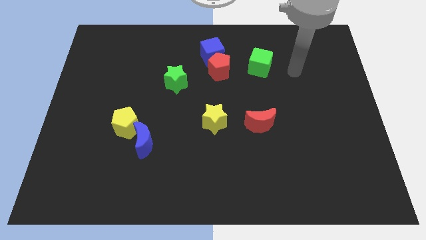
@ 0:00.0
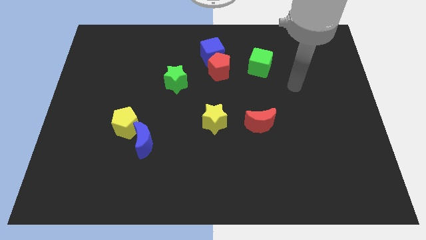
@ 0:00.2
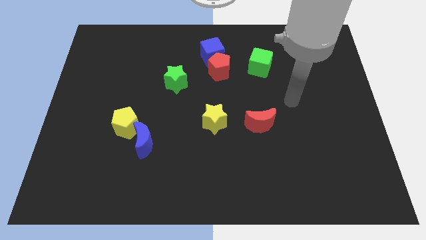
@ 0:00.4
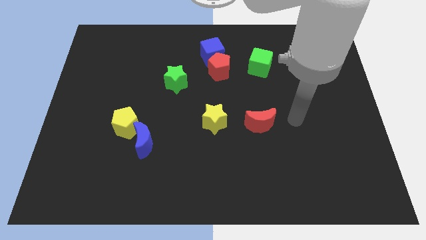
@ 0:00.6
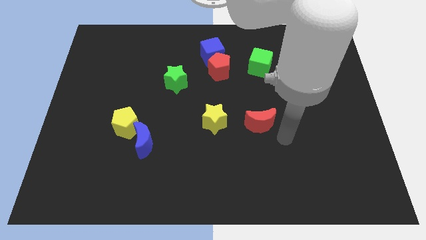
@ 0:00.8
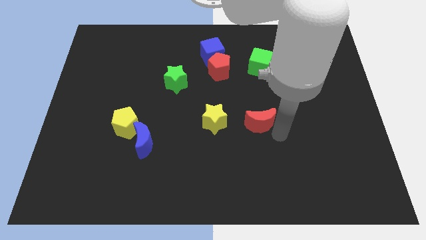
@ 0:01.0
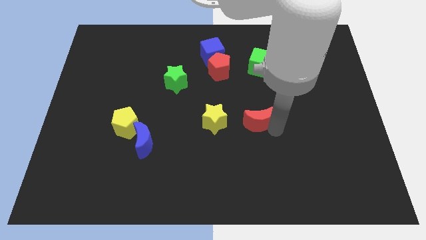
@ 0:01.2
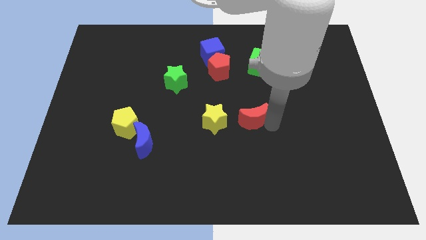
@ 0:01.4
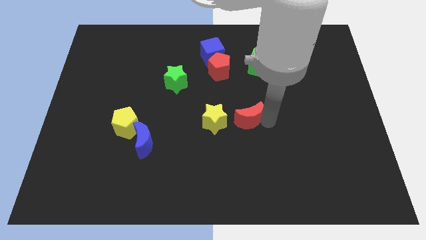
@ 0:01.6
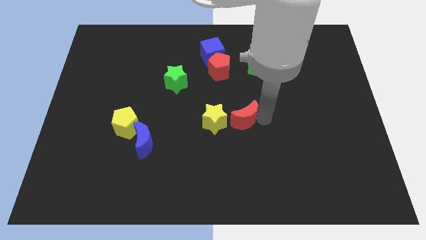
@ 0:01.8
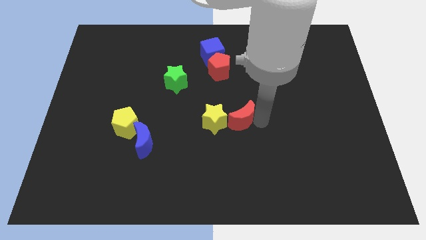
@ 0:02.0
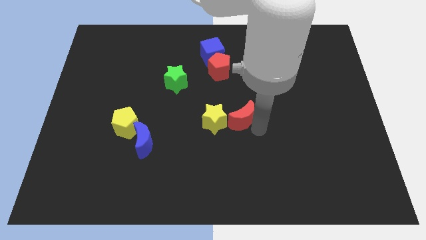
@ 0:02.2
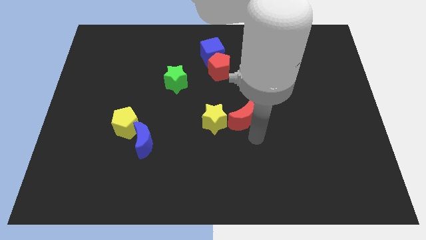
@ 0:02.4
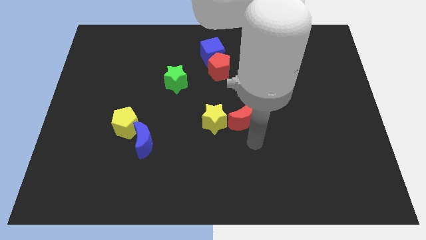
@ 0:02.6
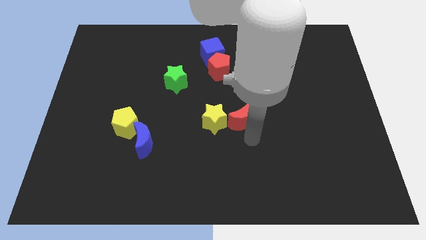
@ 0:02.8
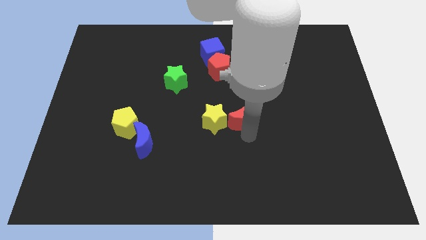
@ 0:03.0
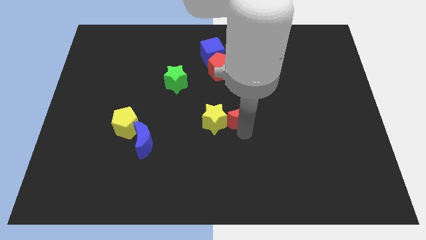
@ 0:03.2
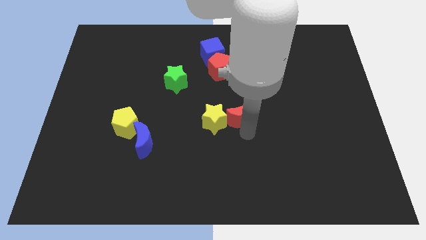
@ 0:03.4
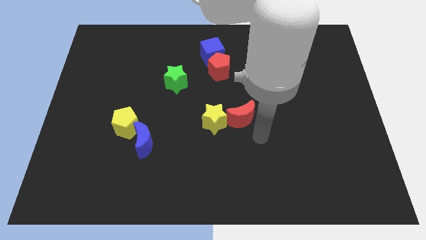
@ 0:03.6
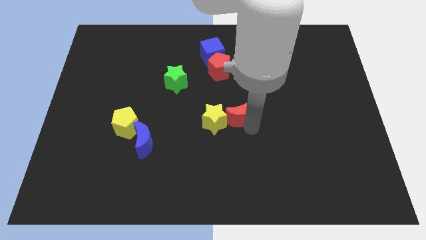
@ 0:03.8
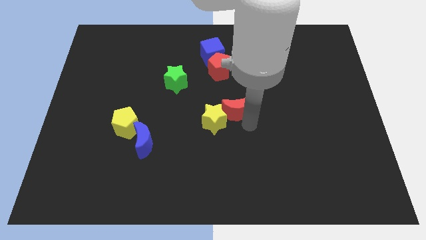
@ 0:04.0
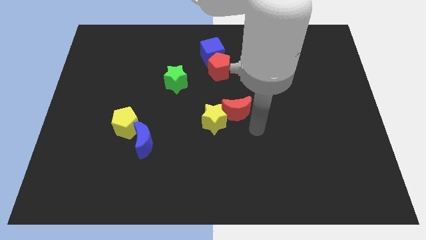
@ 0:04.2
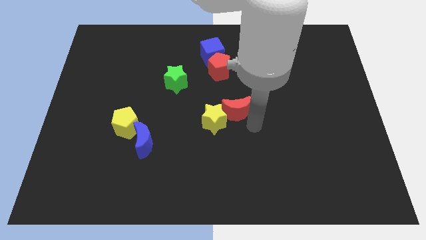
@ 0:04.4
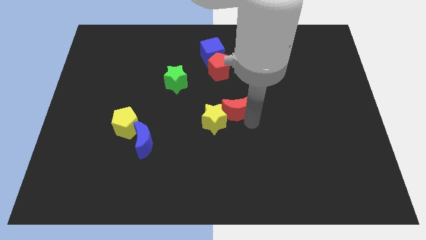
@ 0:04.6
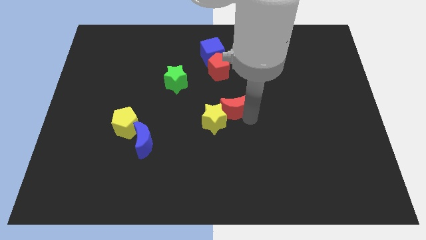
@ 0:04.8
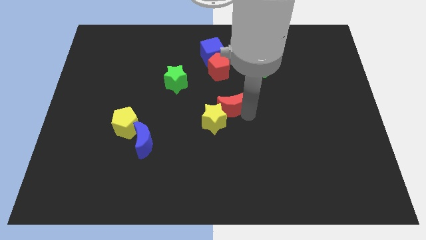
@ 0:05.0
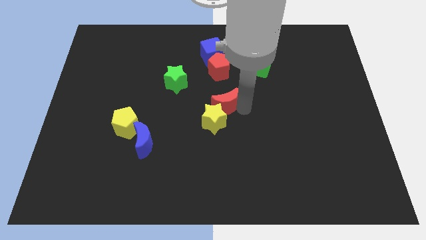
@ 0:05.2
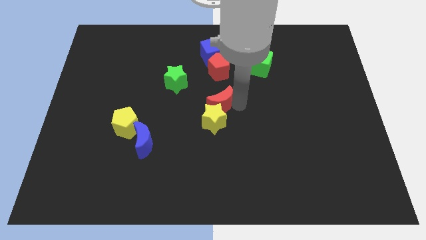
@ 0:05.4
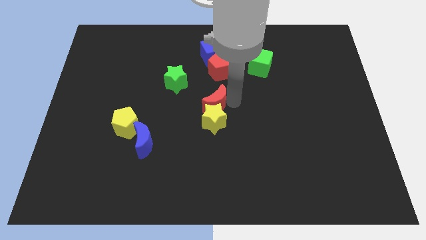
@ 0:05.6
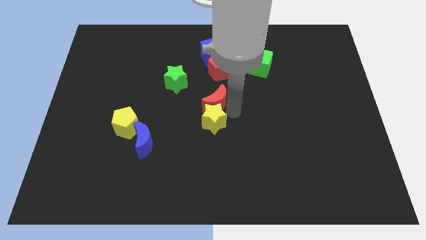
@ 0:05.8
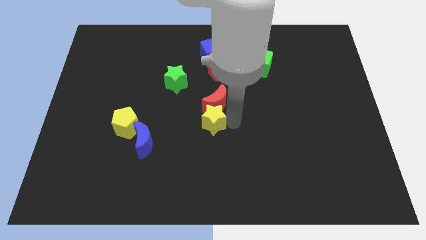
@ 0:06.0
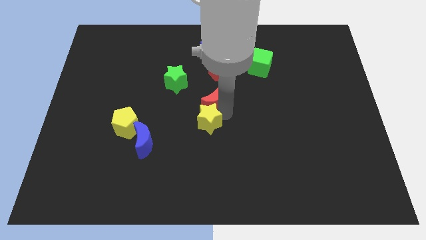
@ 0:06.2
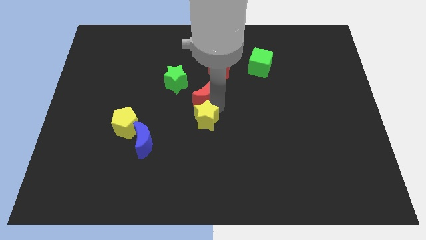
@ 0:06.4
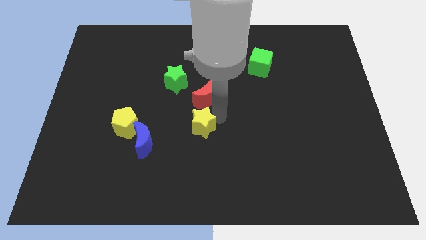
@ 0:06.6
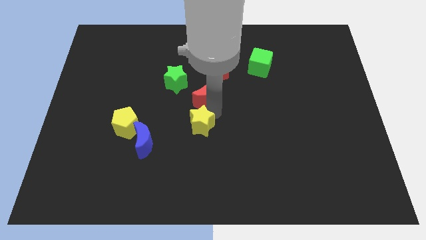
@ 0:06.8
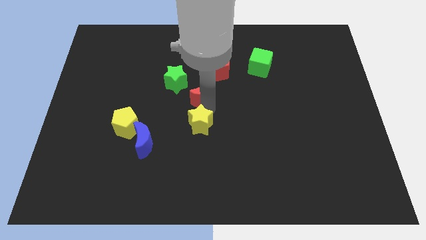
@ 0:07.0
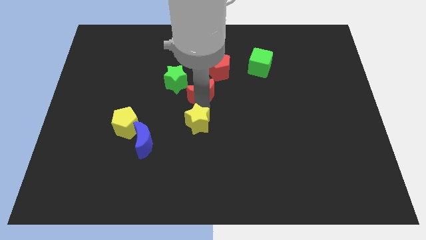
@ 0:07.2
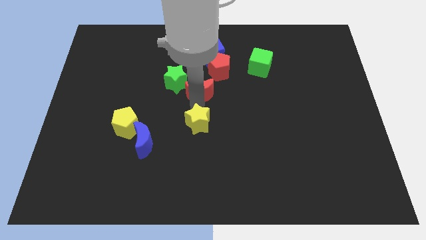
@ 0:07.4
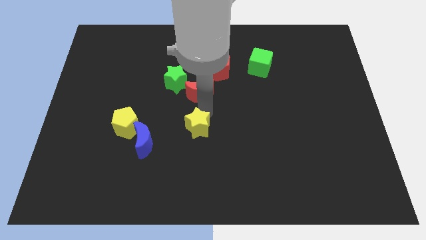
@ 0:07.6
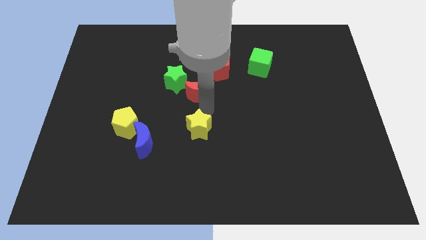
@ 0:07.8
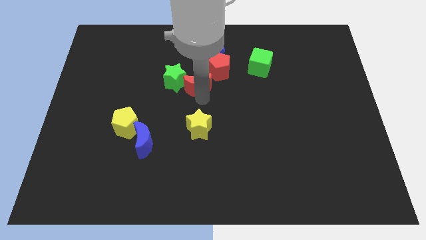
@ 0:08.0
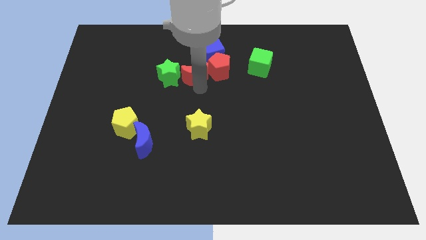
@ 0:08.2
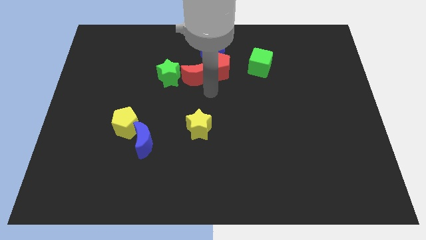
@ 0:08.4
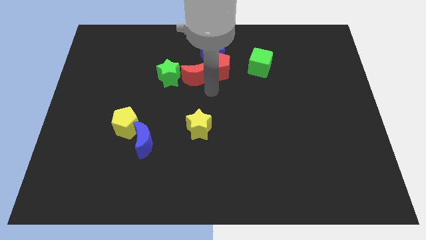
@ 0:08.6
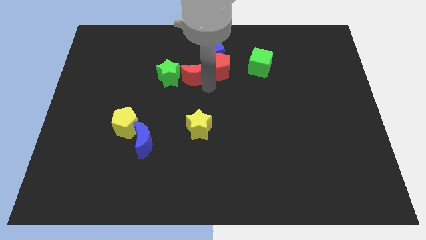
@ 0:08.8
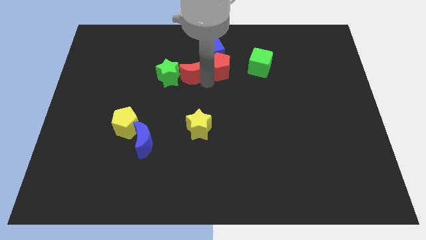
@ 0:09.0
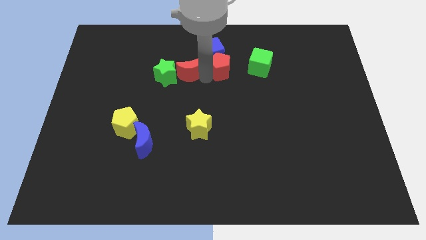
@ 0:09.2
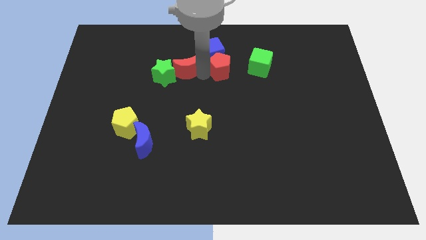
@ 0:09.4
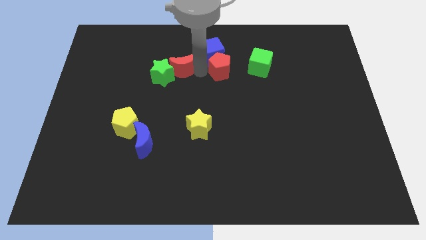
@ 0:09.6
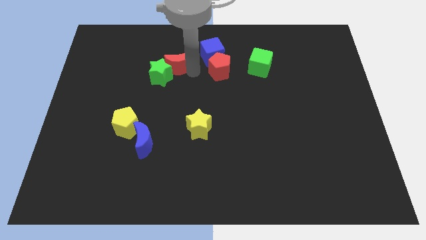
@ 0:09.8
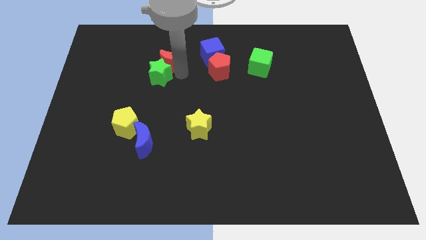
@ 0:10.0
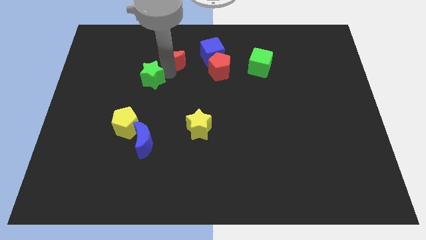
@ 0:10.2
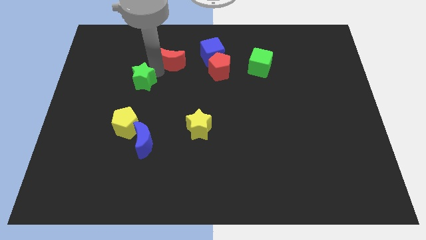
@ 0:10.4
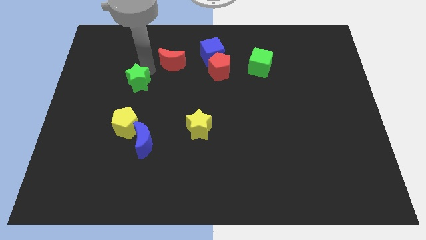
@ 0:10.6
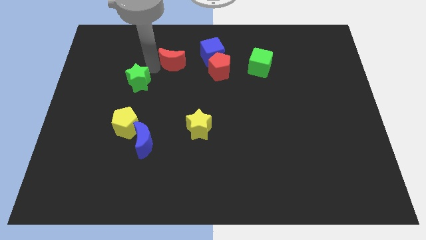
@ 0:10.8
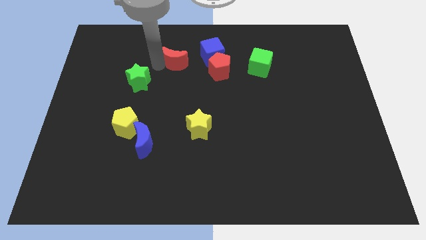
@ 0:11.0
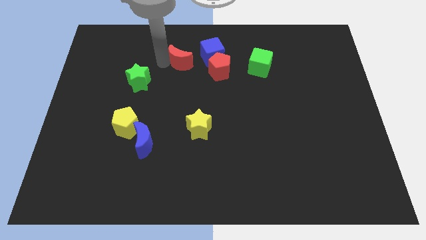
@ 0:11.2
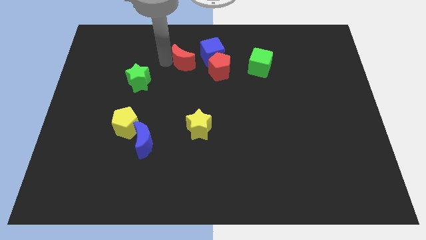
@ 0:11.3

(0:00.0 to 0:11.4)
push the red moon diagonally up and to the left of the red pentagon

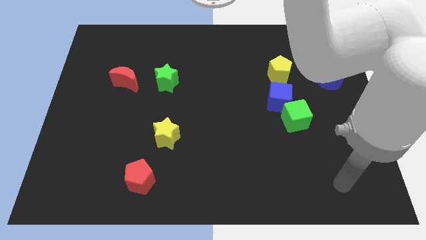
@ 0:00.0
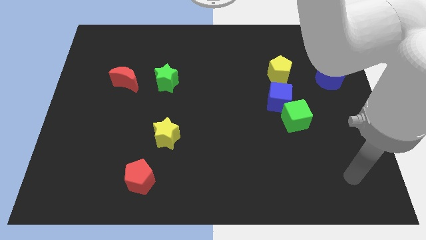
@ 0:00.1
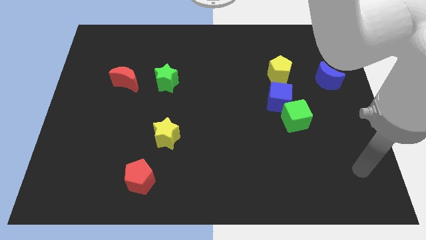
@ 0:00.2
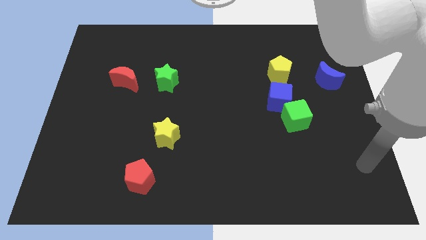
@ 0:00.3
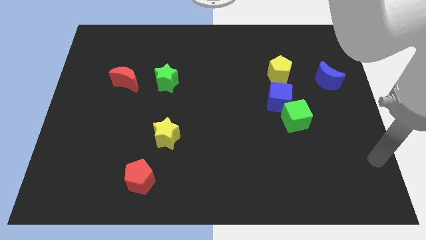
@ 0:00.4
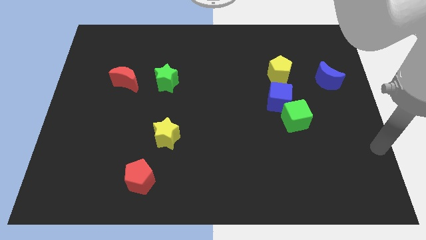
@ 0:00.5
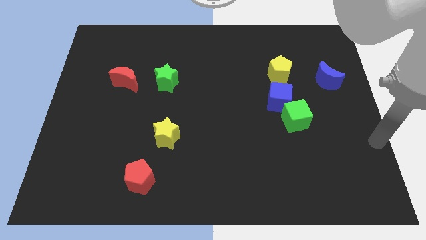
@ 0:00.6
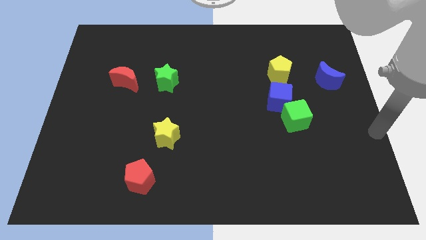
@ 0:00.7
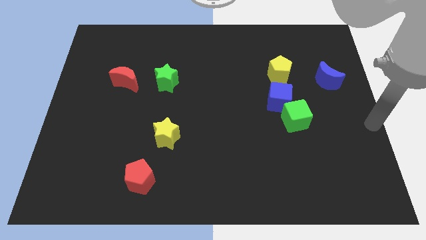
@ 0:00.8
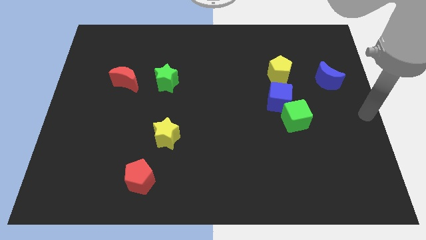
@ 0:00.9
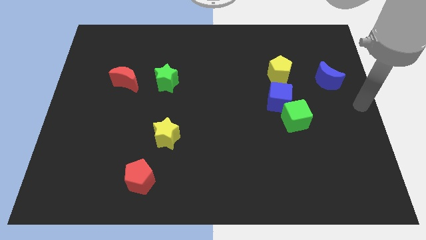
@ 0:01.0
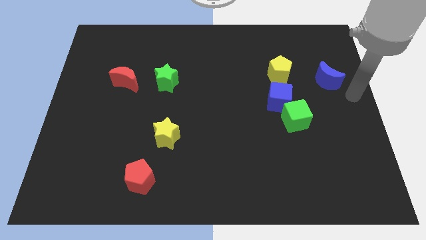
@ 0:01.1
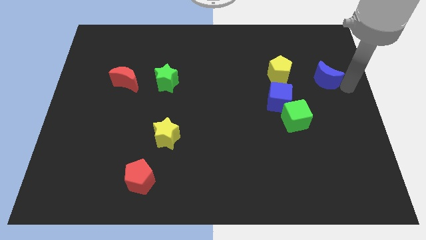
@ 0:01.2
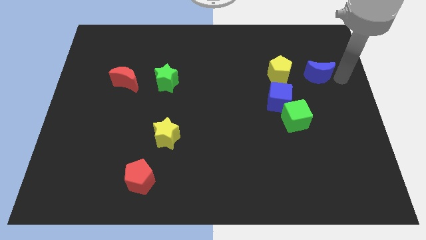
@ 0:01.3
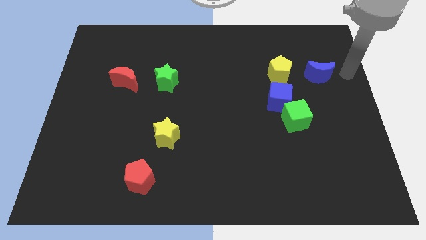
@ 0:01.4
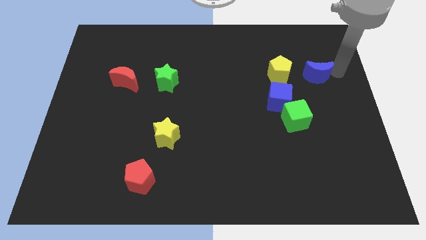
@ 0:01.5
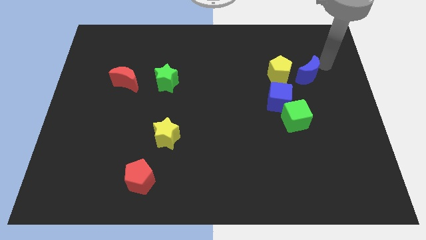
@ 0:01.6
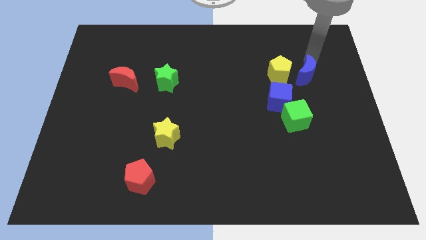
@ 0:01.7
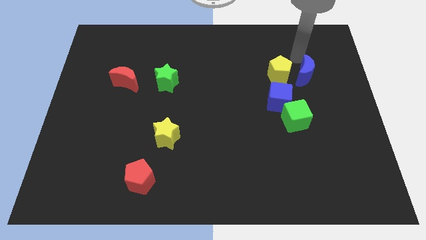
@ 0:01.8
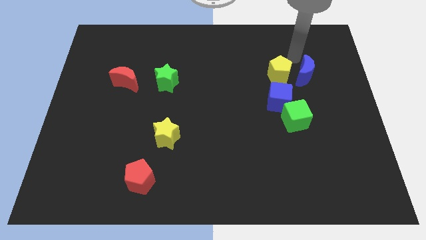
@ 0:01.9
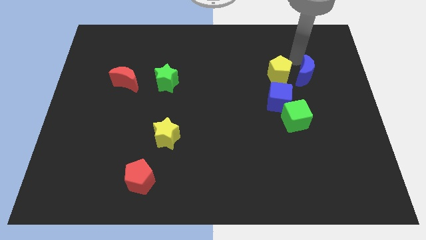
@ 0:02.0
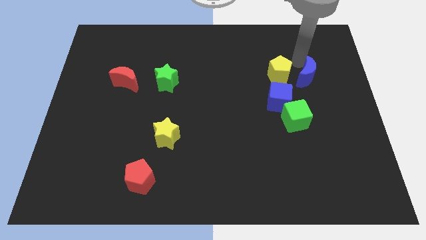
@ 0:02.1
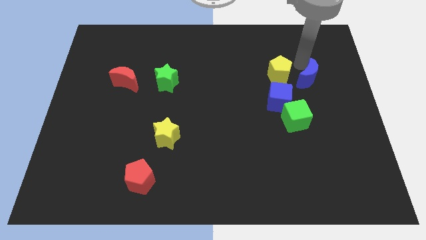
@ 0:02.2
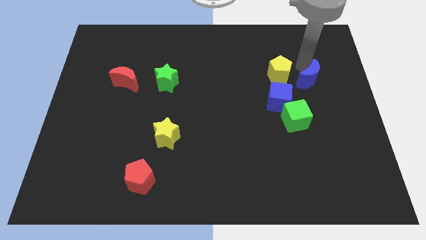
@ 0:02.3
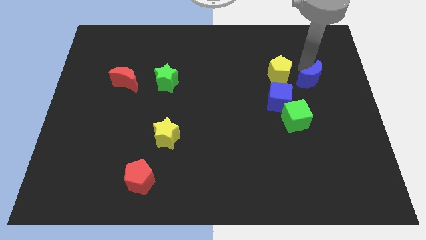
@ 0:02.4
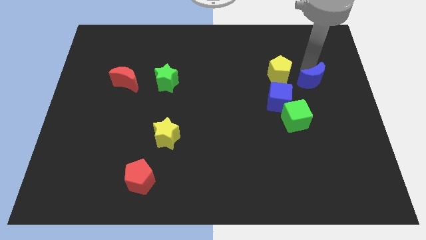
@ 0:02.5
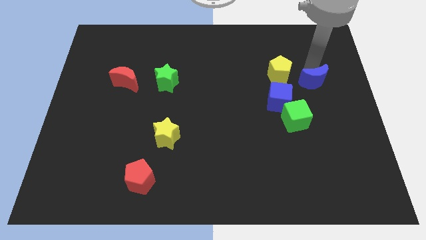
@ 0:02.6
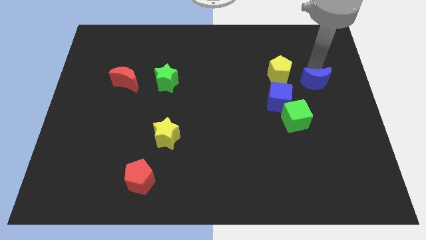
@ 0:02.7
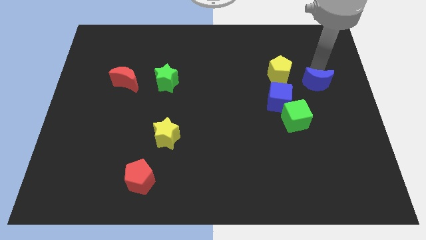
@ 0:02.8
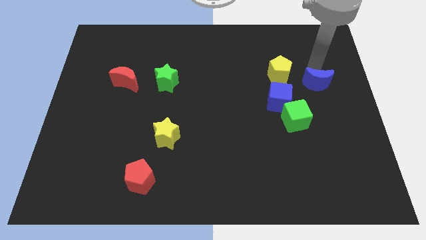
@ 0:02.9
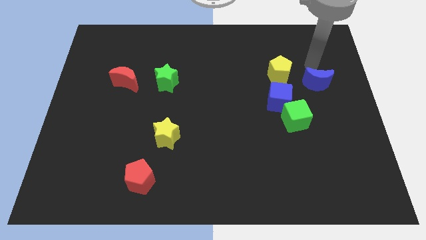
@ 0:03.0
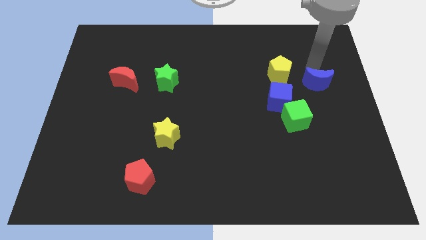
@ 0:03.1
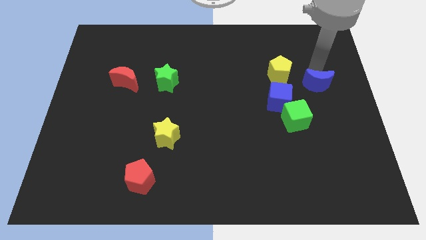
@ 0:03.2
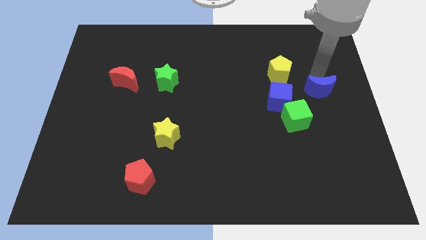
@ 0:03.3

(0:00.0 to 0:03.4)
push the blue moon right of the blue cube
